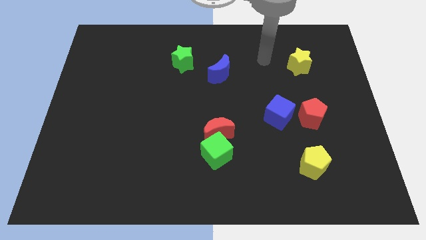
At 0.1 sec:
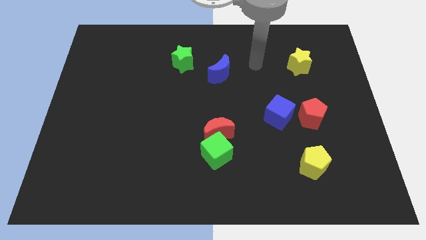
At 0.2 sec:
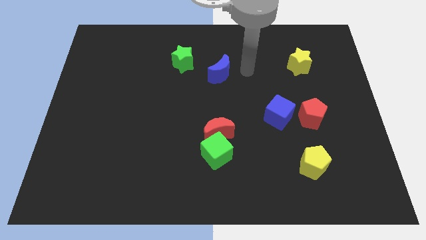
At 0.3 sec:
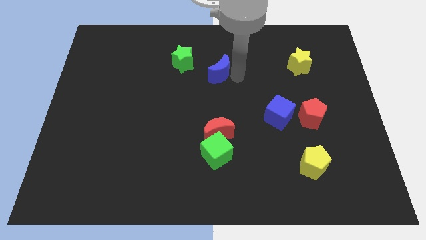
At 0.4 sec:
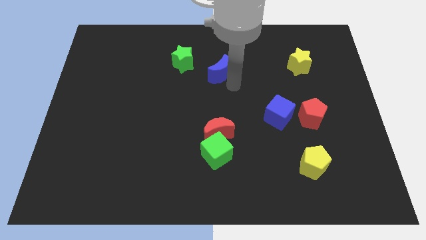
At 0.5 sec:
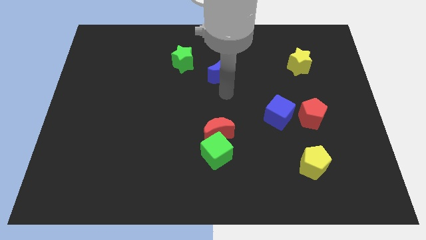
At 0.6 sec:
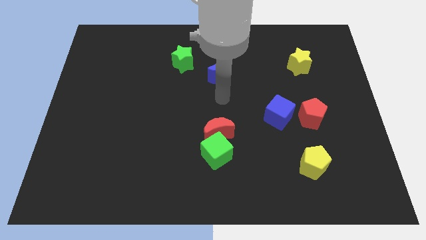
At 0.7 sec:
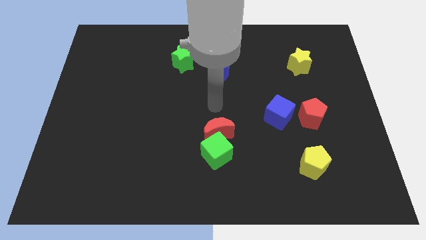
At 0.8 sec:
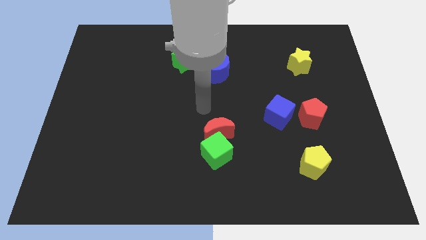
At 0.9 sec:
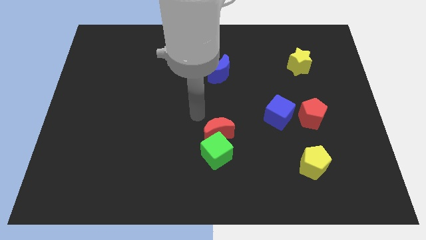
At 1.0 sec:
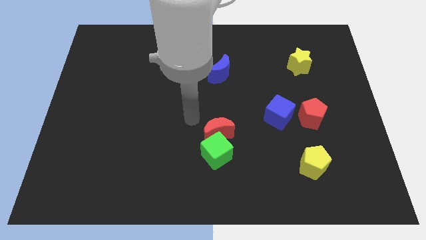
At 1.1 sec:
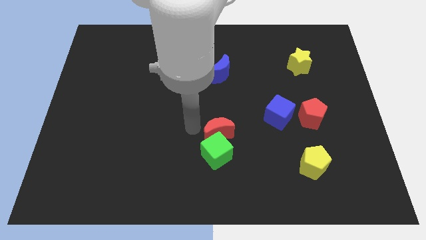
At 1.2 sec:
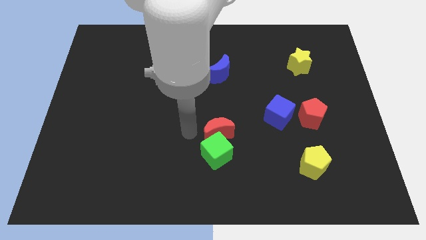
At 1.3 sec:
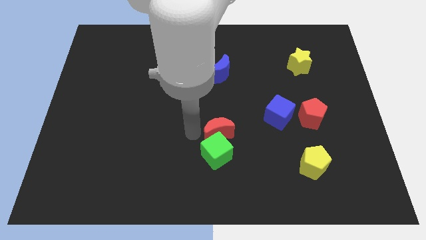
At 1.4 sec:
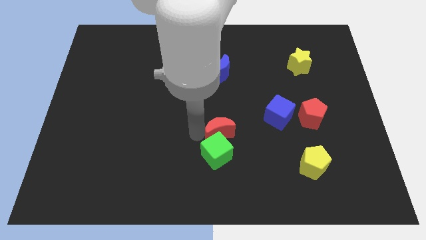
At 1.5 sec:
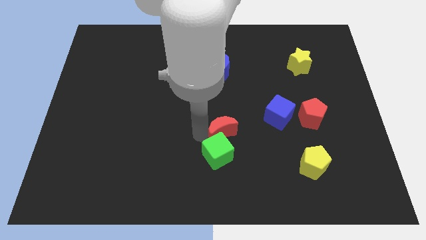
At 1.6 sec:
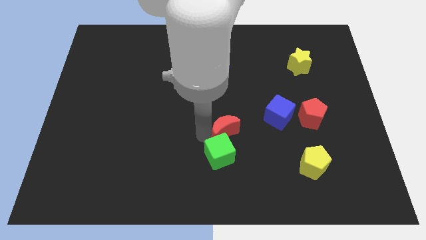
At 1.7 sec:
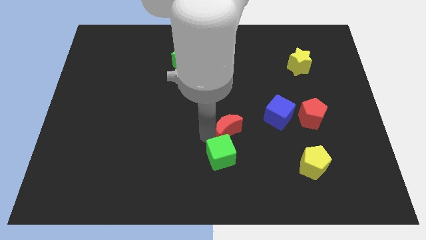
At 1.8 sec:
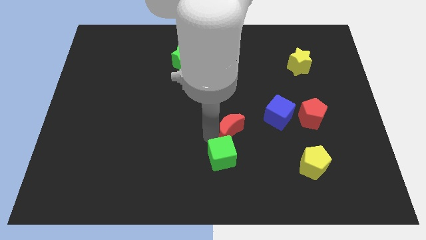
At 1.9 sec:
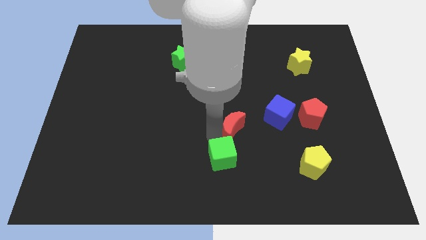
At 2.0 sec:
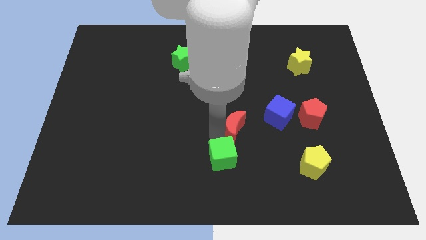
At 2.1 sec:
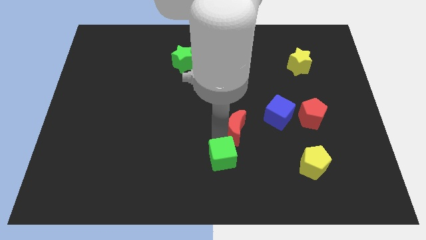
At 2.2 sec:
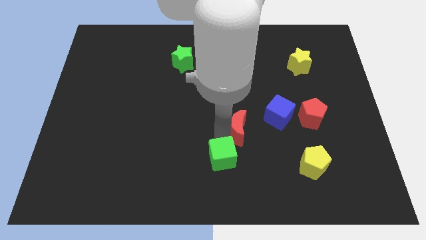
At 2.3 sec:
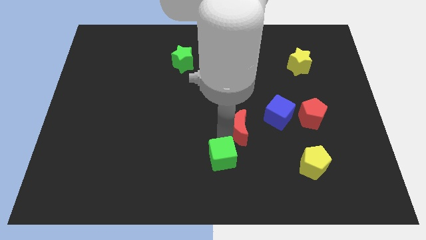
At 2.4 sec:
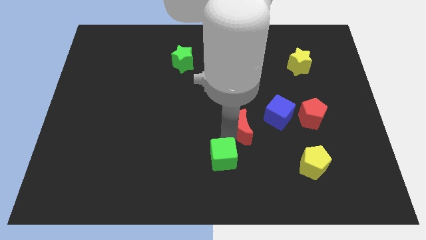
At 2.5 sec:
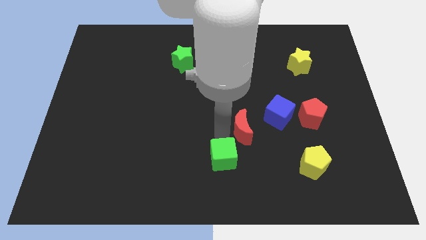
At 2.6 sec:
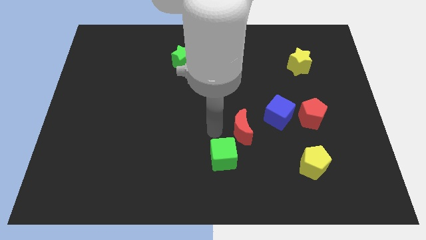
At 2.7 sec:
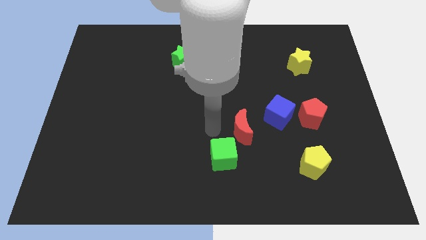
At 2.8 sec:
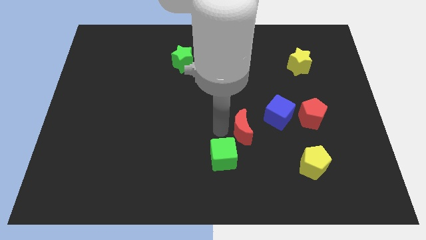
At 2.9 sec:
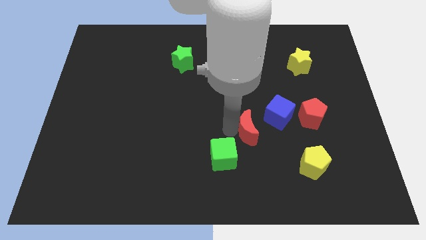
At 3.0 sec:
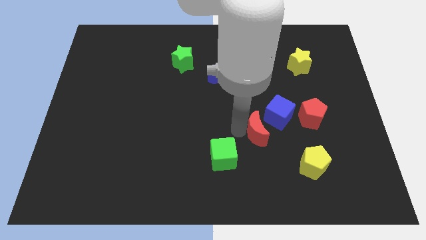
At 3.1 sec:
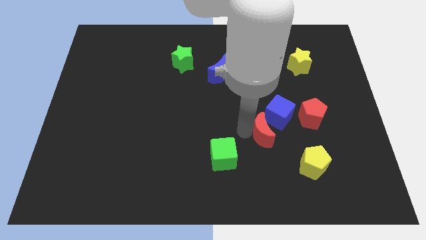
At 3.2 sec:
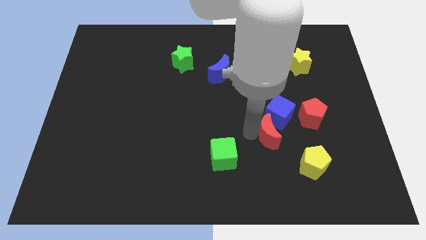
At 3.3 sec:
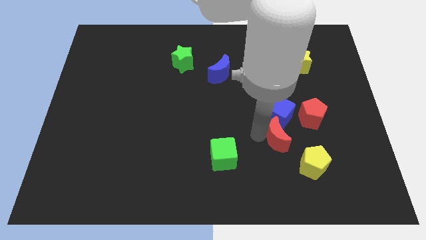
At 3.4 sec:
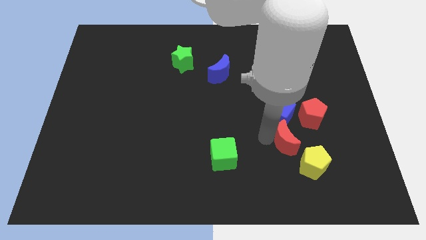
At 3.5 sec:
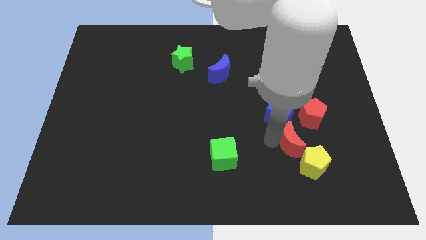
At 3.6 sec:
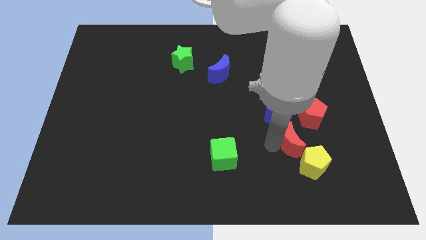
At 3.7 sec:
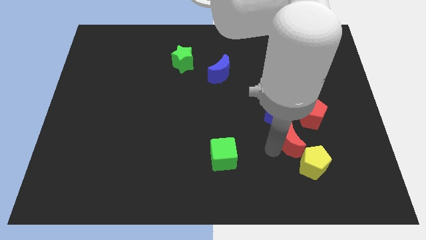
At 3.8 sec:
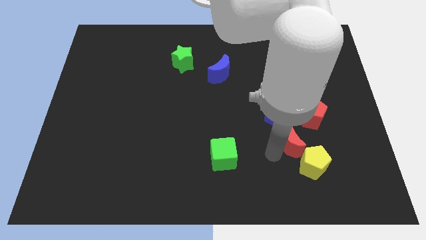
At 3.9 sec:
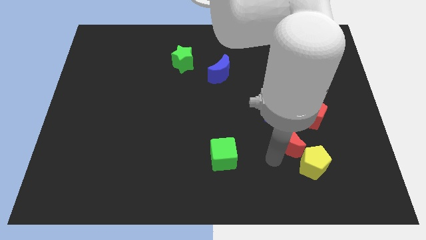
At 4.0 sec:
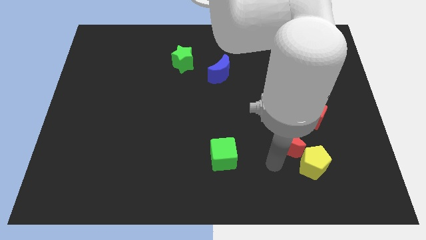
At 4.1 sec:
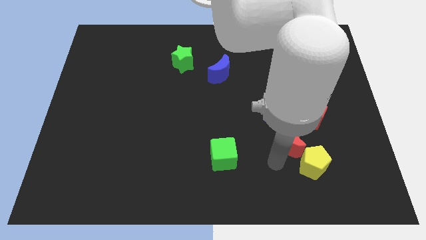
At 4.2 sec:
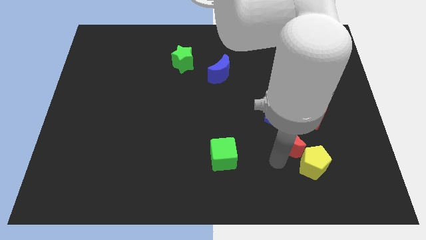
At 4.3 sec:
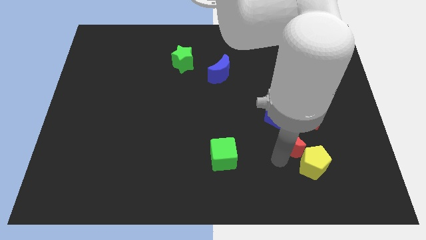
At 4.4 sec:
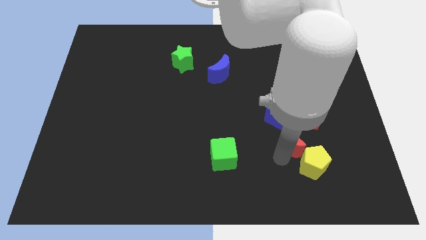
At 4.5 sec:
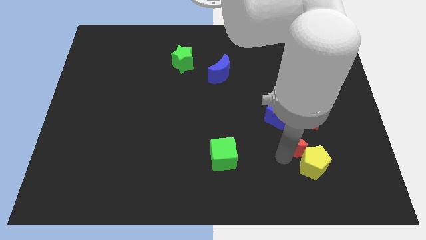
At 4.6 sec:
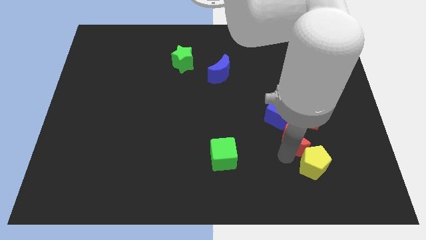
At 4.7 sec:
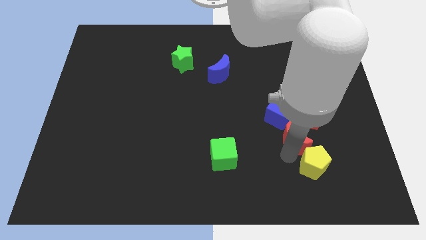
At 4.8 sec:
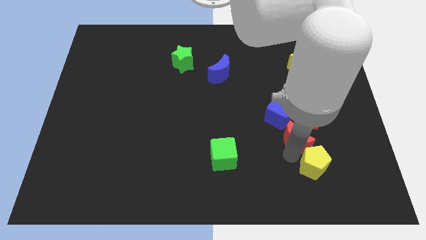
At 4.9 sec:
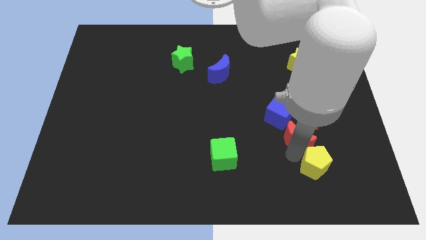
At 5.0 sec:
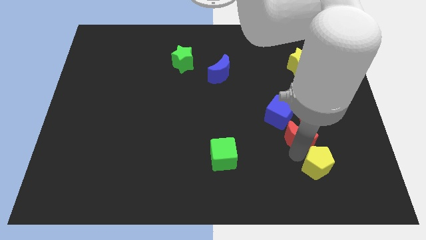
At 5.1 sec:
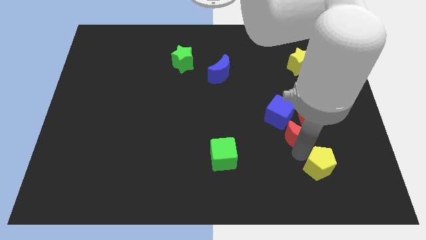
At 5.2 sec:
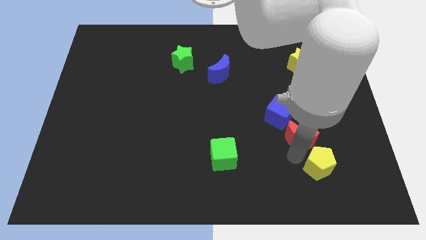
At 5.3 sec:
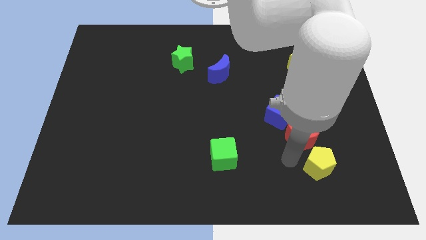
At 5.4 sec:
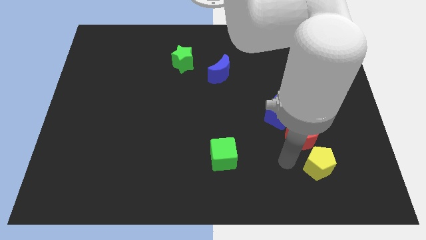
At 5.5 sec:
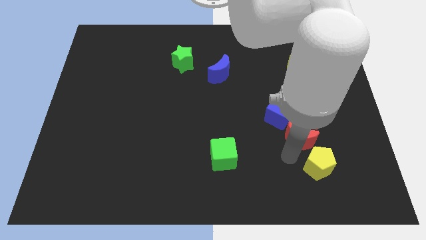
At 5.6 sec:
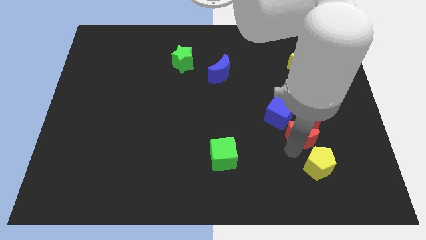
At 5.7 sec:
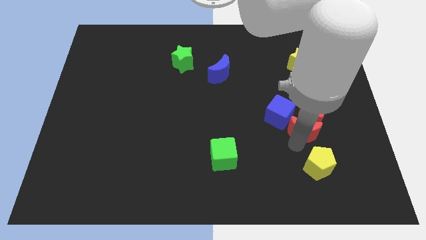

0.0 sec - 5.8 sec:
move the red moon towards the red pentagon
